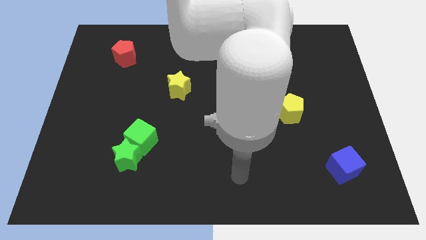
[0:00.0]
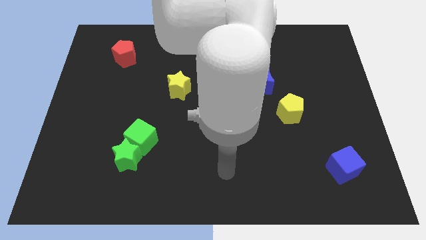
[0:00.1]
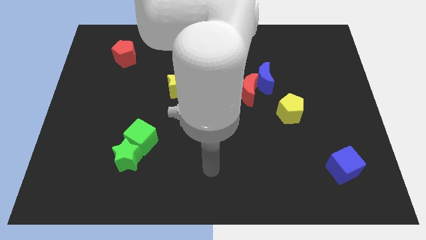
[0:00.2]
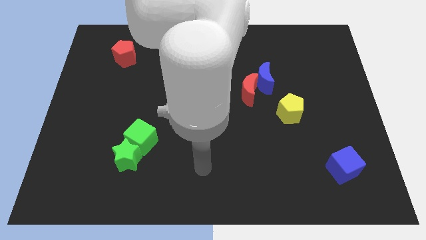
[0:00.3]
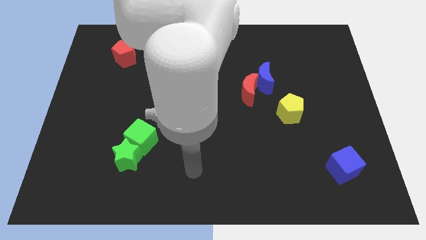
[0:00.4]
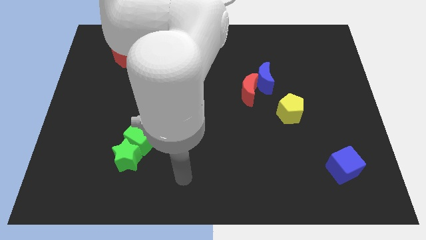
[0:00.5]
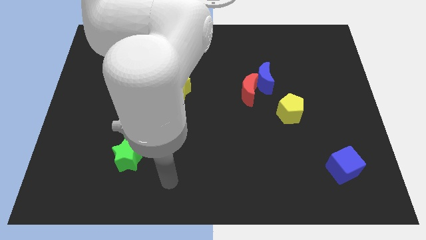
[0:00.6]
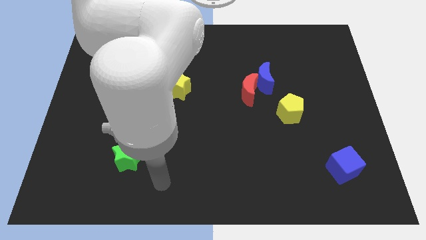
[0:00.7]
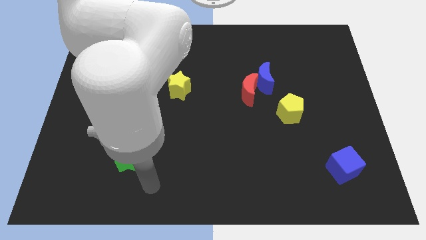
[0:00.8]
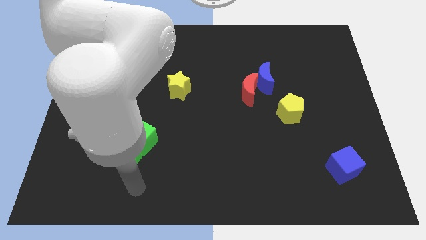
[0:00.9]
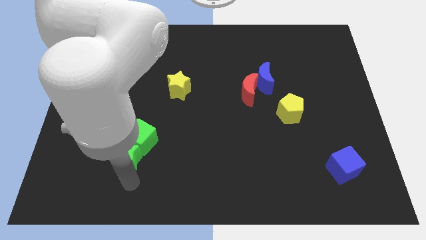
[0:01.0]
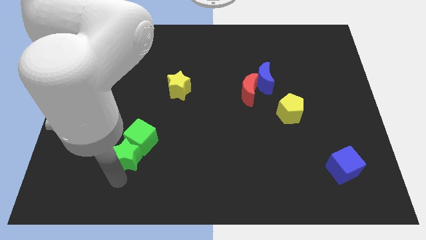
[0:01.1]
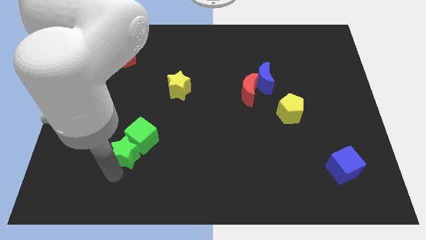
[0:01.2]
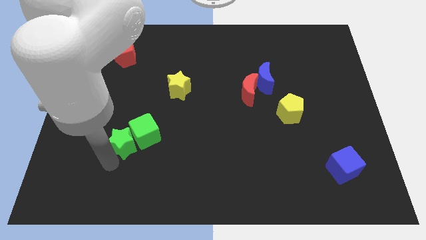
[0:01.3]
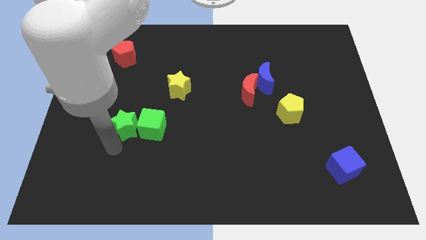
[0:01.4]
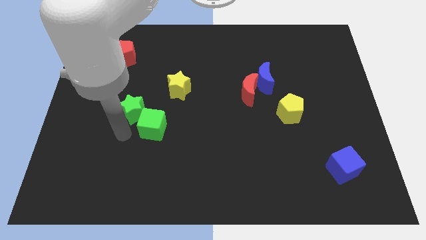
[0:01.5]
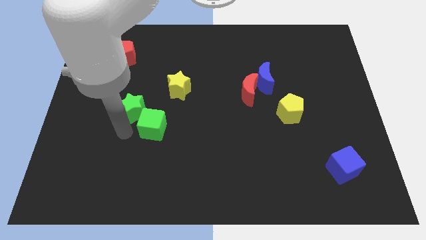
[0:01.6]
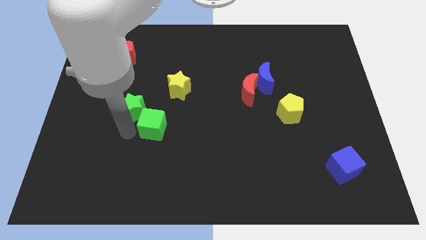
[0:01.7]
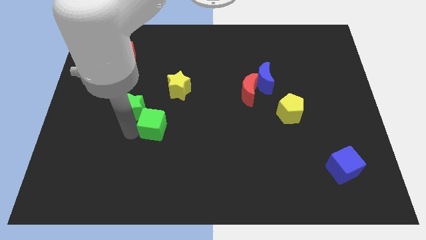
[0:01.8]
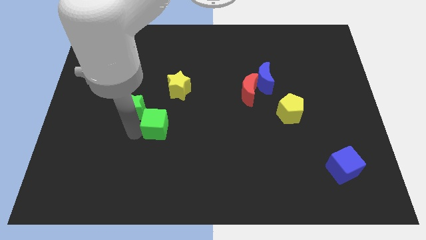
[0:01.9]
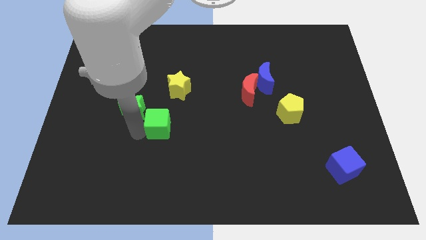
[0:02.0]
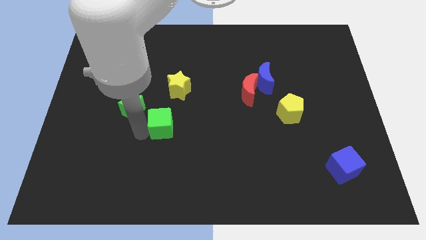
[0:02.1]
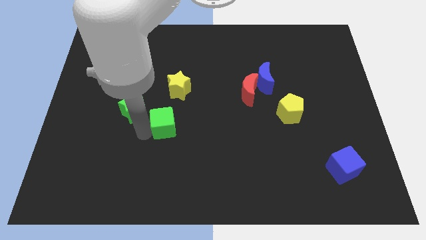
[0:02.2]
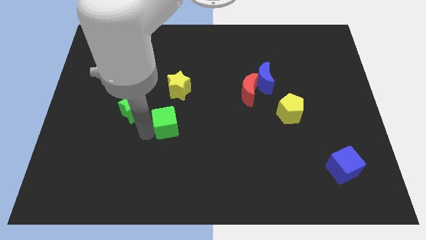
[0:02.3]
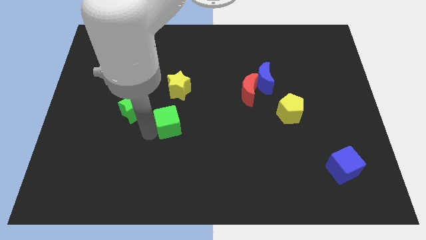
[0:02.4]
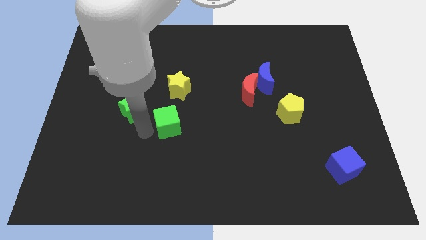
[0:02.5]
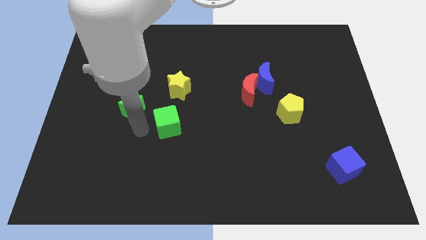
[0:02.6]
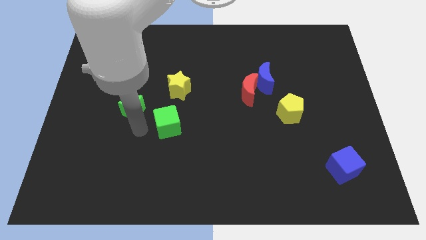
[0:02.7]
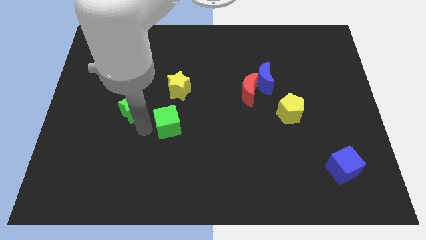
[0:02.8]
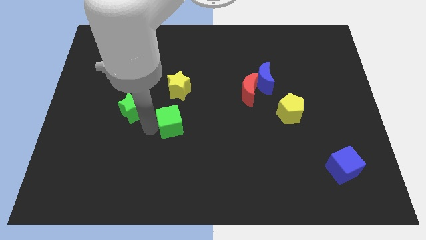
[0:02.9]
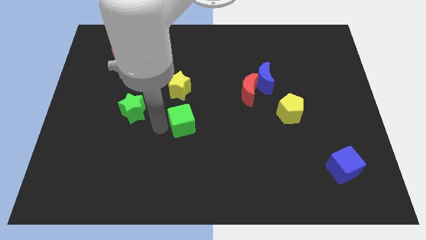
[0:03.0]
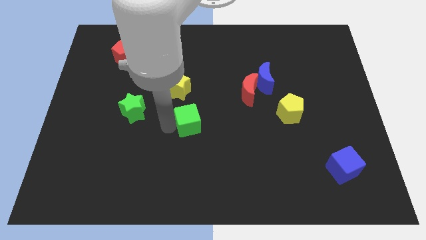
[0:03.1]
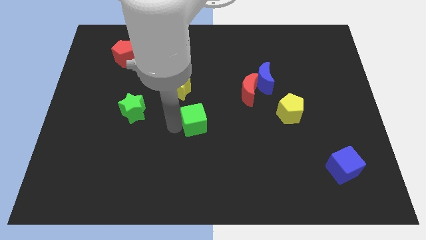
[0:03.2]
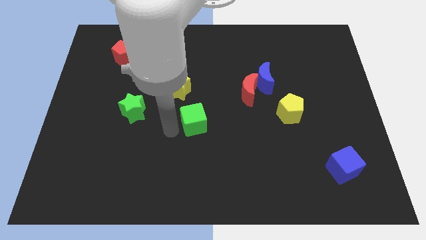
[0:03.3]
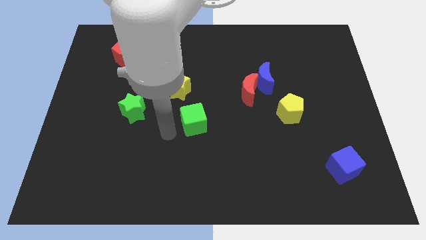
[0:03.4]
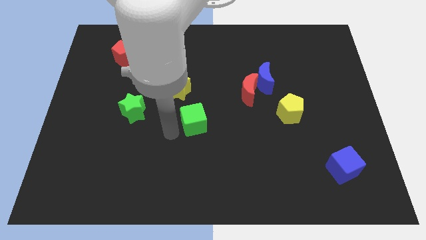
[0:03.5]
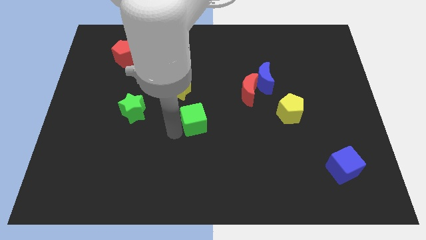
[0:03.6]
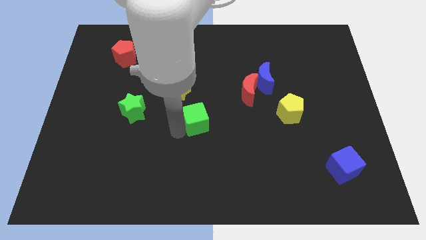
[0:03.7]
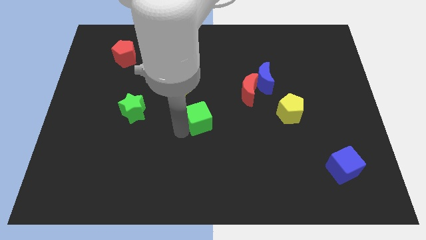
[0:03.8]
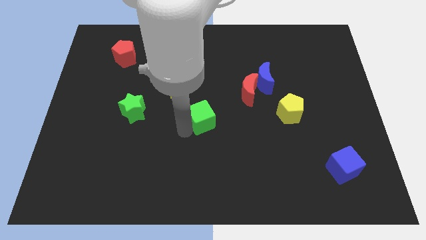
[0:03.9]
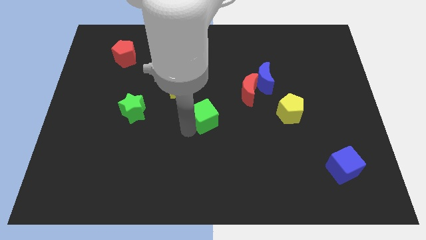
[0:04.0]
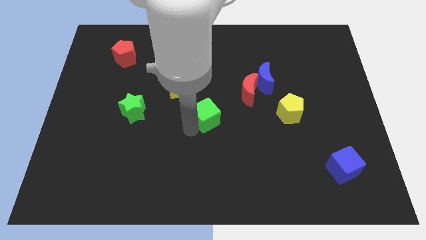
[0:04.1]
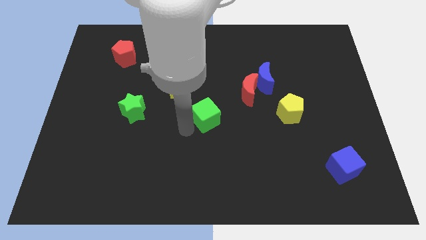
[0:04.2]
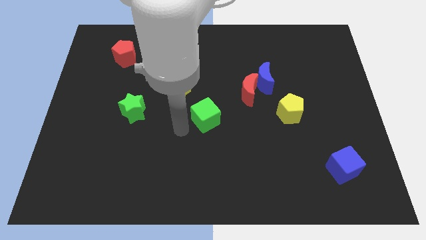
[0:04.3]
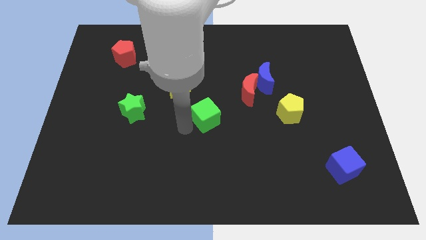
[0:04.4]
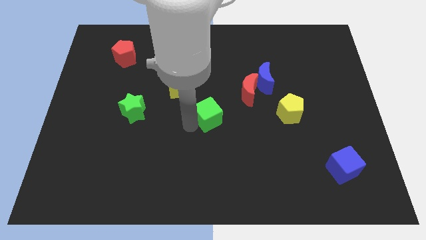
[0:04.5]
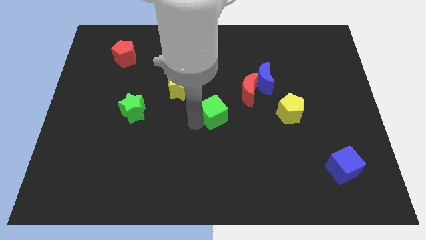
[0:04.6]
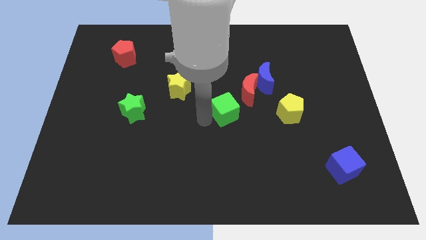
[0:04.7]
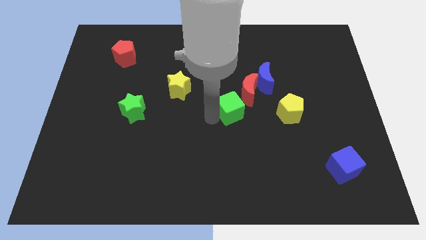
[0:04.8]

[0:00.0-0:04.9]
push the green cube diagonally down and to the left of the blue moon

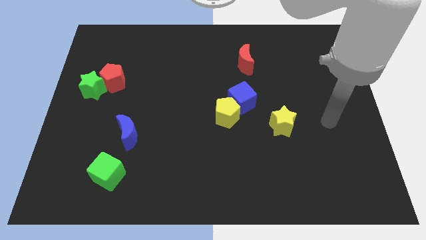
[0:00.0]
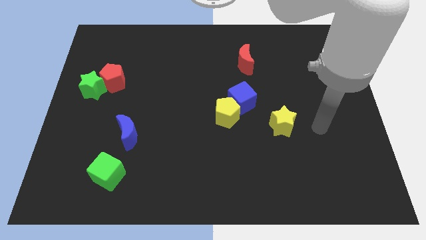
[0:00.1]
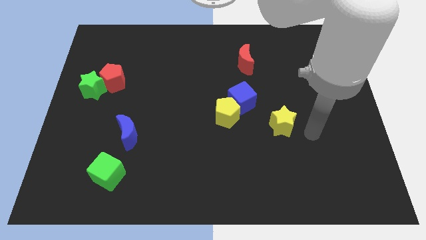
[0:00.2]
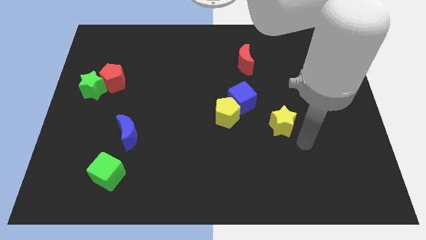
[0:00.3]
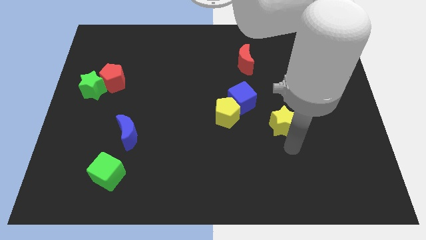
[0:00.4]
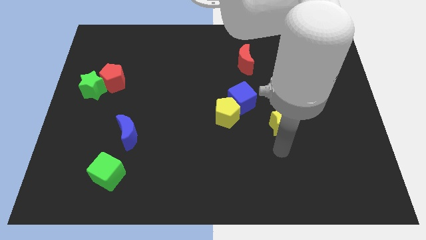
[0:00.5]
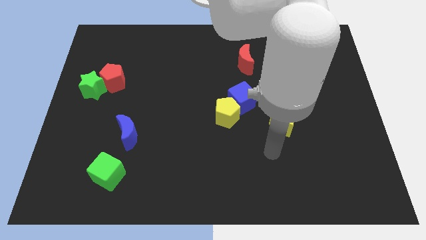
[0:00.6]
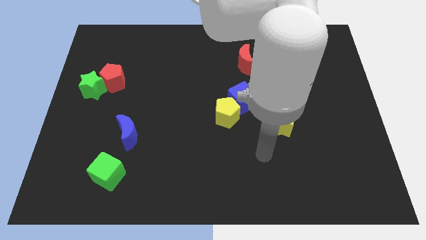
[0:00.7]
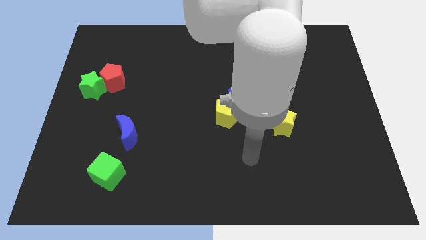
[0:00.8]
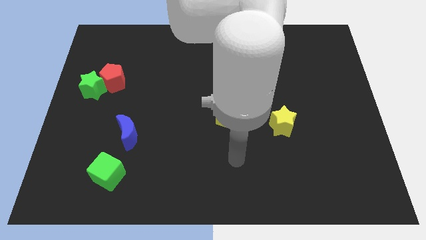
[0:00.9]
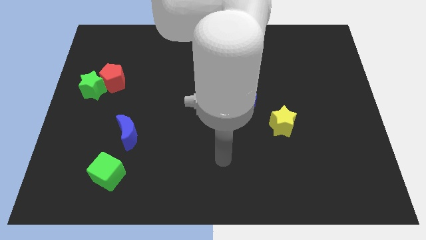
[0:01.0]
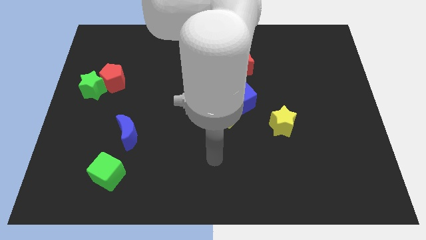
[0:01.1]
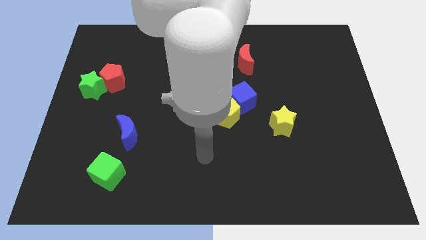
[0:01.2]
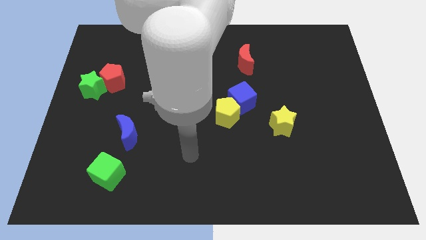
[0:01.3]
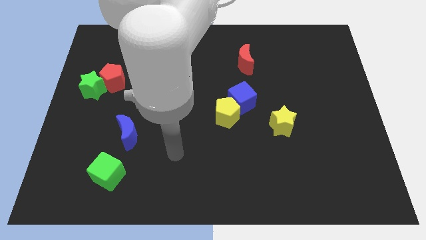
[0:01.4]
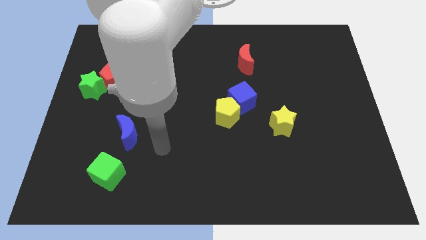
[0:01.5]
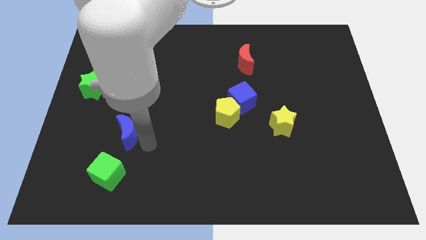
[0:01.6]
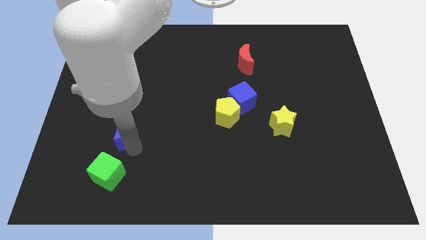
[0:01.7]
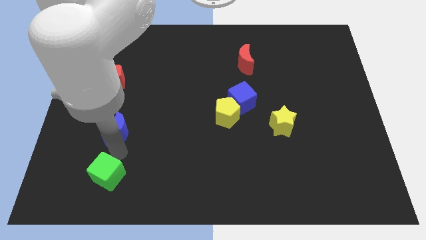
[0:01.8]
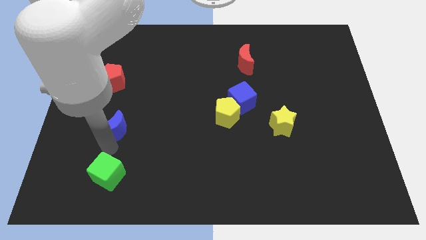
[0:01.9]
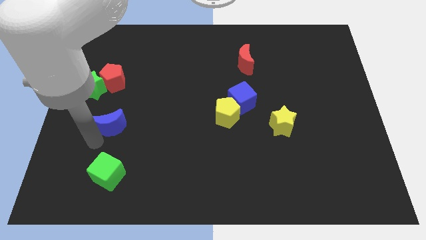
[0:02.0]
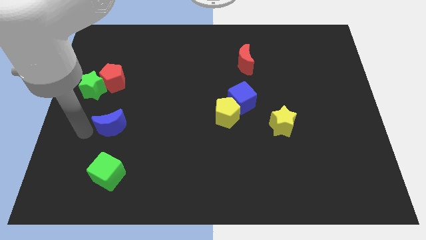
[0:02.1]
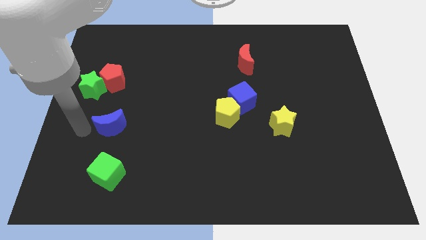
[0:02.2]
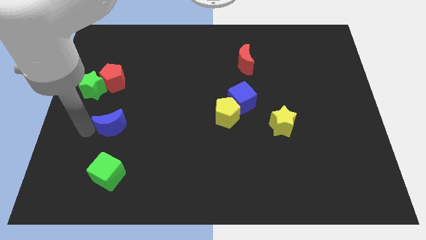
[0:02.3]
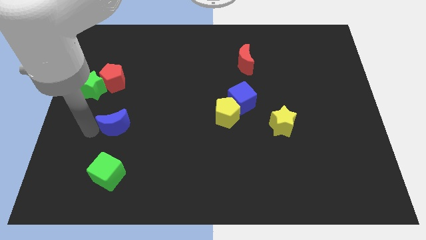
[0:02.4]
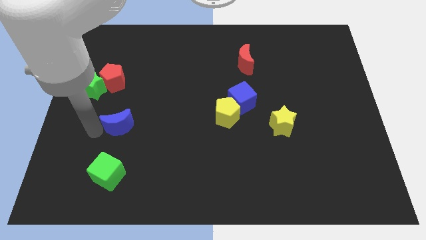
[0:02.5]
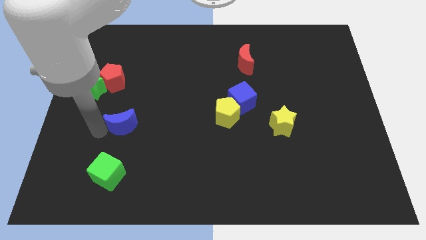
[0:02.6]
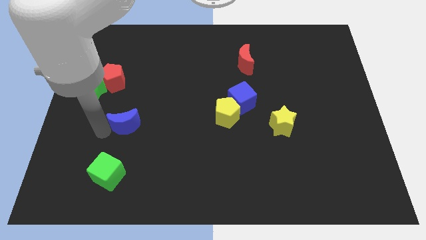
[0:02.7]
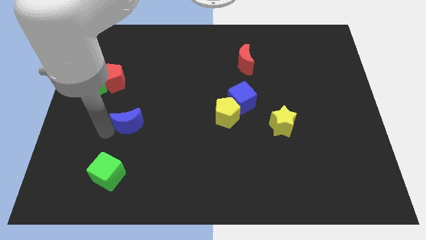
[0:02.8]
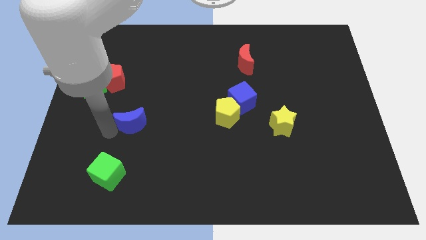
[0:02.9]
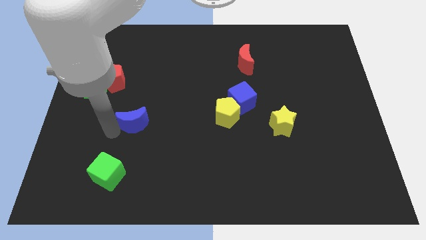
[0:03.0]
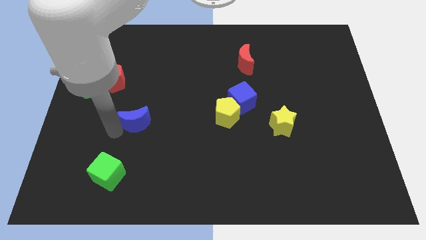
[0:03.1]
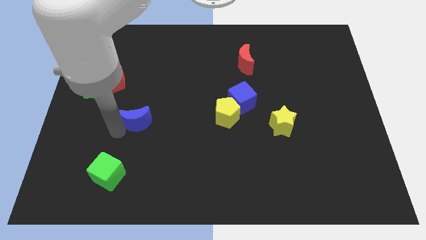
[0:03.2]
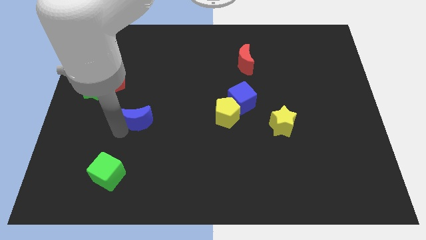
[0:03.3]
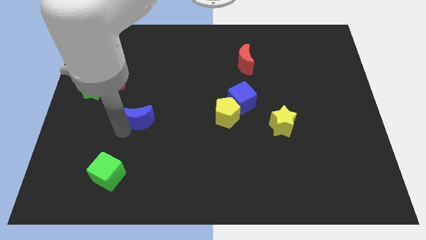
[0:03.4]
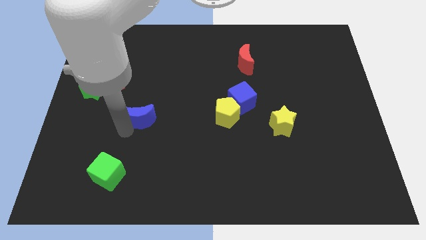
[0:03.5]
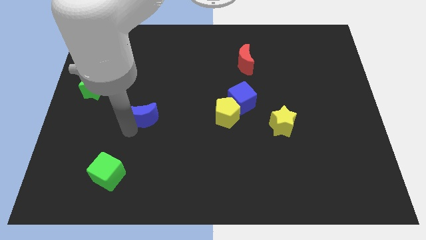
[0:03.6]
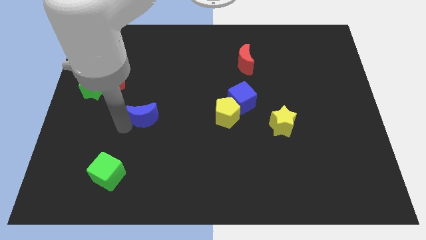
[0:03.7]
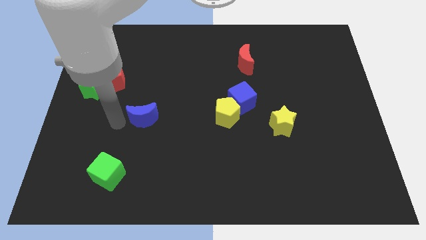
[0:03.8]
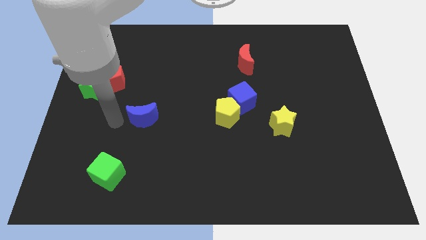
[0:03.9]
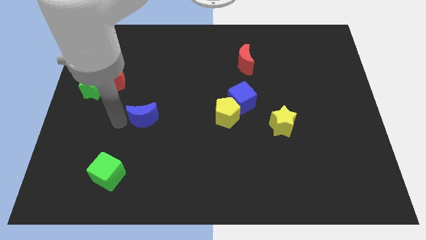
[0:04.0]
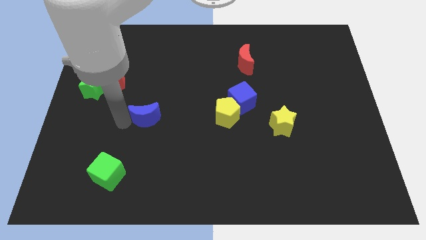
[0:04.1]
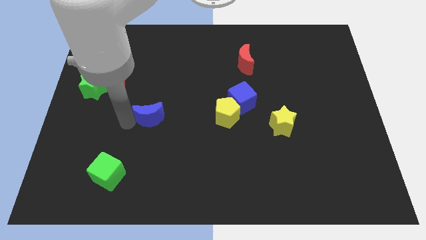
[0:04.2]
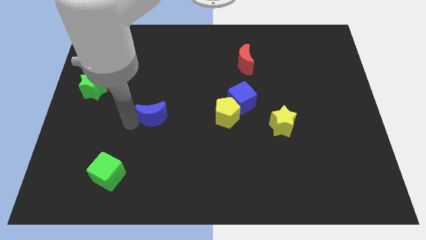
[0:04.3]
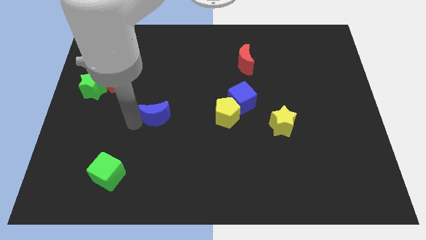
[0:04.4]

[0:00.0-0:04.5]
move the blue moon to the left side of the yellow pentagon
